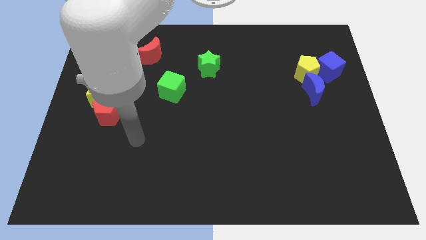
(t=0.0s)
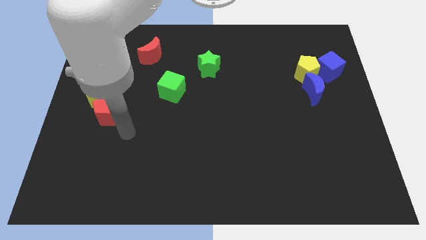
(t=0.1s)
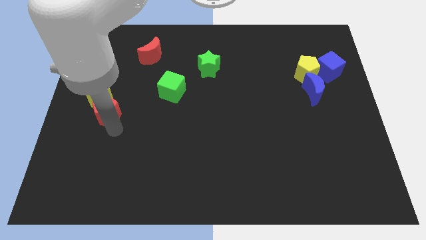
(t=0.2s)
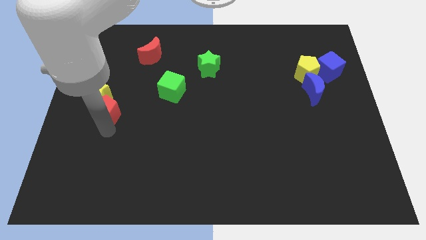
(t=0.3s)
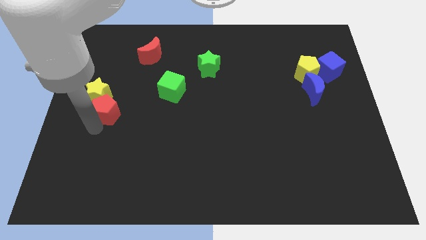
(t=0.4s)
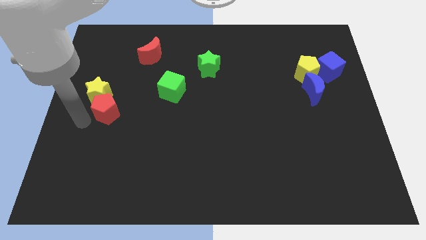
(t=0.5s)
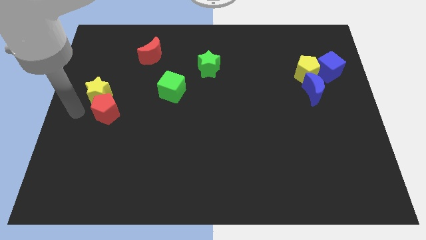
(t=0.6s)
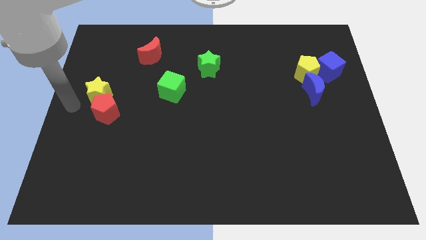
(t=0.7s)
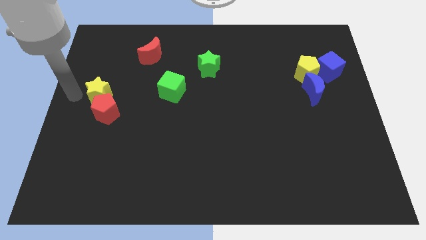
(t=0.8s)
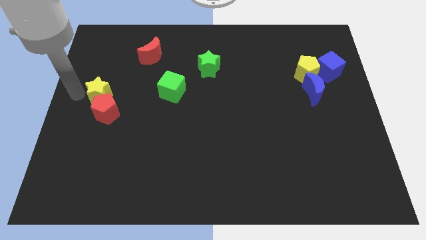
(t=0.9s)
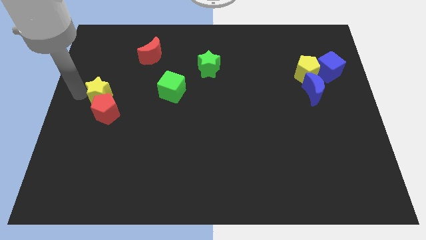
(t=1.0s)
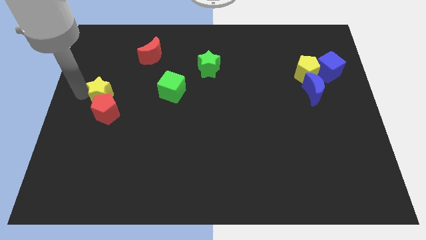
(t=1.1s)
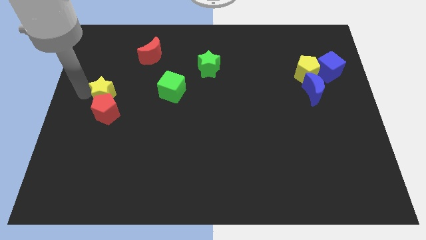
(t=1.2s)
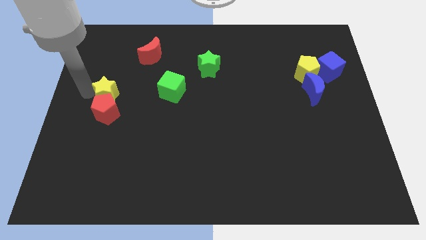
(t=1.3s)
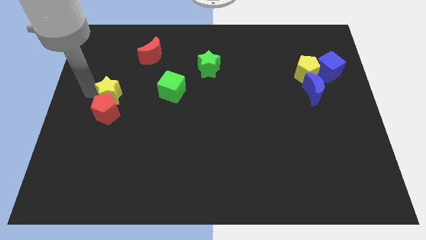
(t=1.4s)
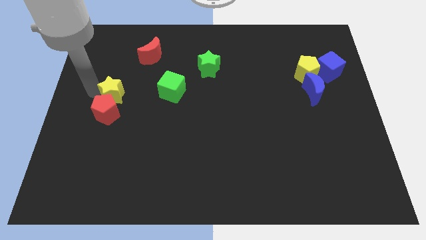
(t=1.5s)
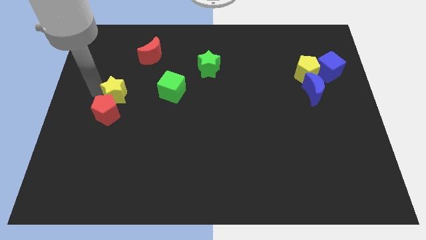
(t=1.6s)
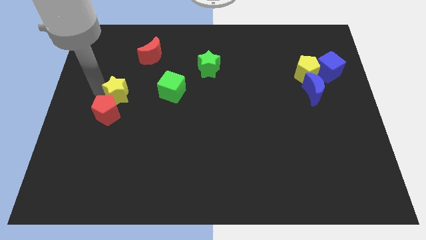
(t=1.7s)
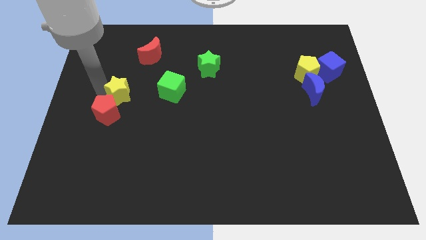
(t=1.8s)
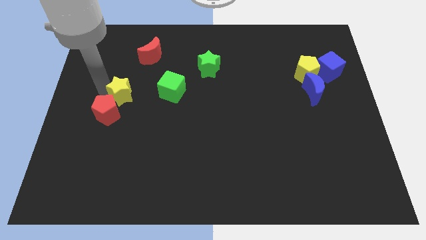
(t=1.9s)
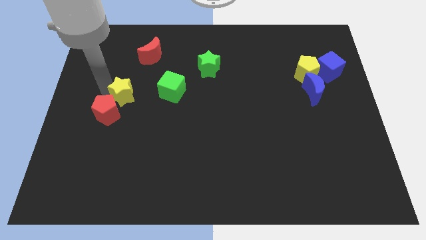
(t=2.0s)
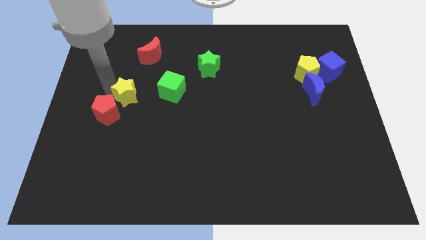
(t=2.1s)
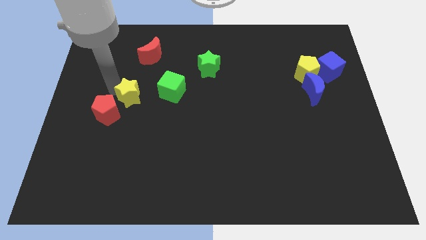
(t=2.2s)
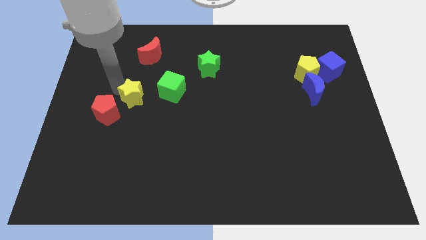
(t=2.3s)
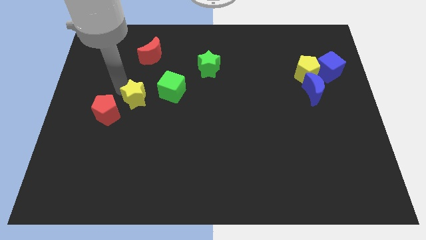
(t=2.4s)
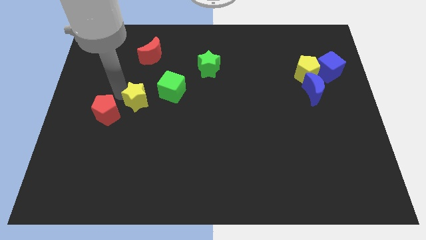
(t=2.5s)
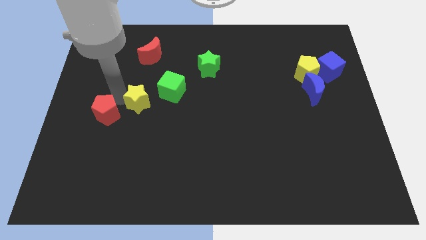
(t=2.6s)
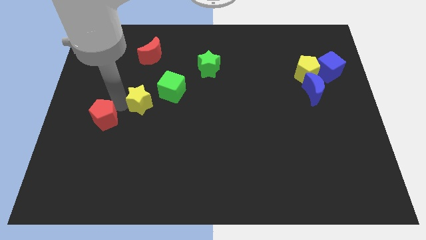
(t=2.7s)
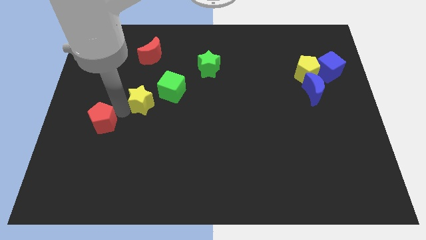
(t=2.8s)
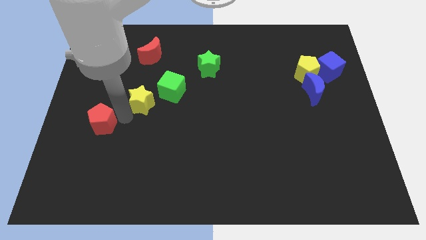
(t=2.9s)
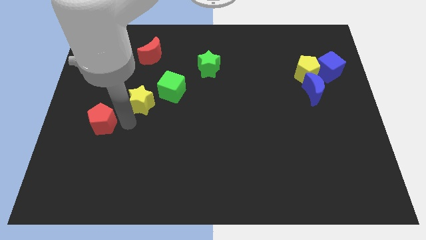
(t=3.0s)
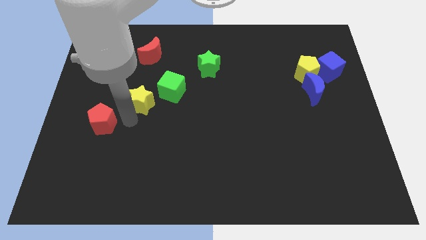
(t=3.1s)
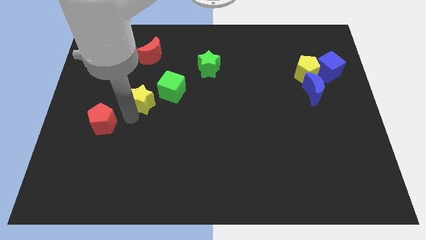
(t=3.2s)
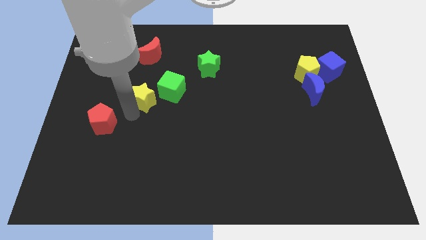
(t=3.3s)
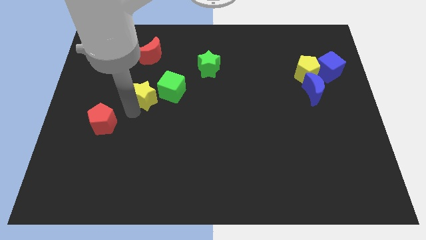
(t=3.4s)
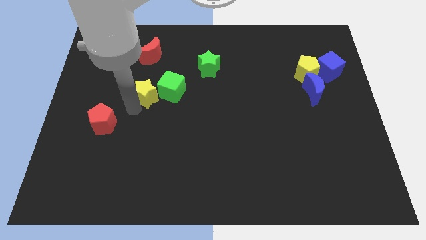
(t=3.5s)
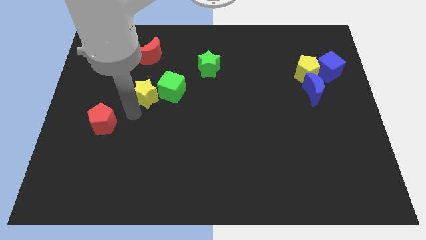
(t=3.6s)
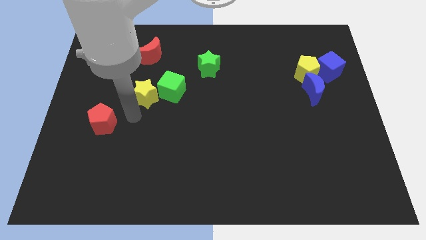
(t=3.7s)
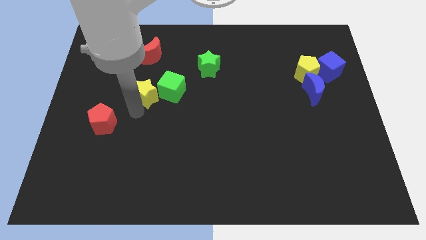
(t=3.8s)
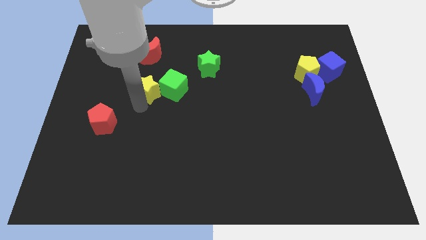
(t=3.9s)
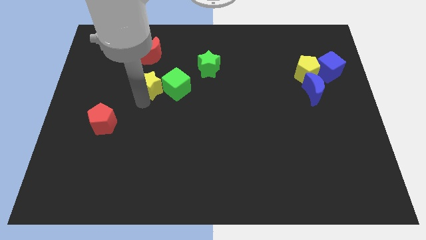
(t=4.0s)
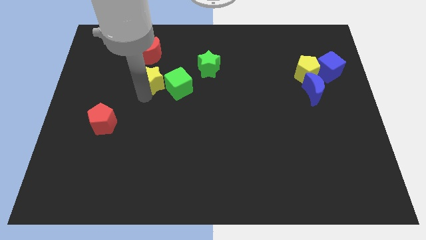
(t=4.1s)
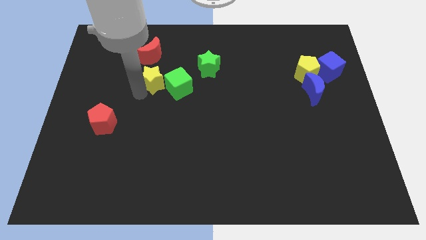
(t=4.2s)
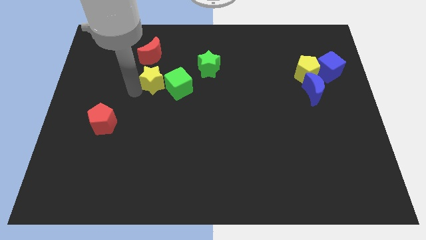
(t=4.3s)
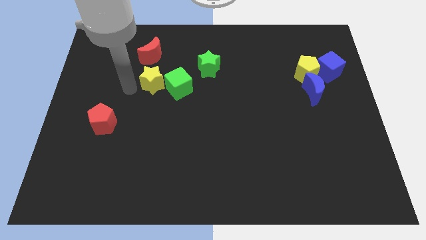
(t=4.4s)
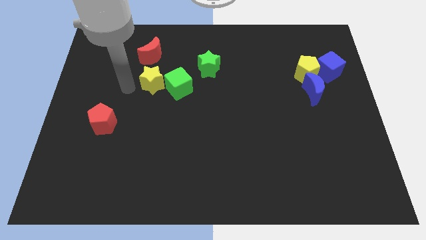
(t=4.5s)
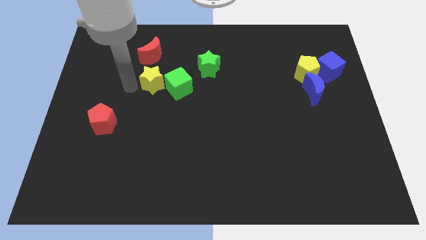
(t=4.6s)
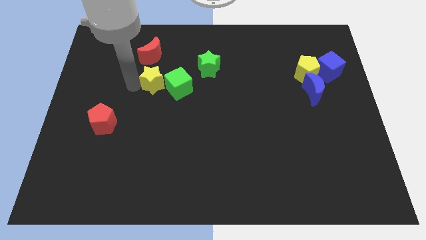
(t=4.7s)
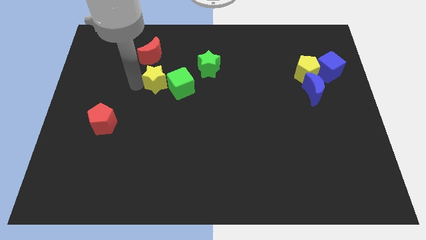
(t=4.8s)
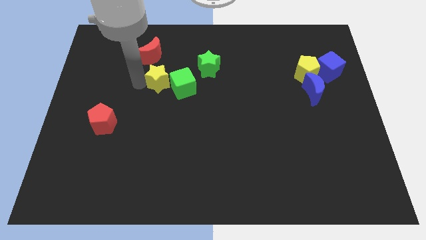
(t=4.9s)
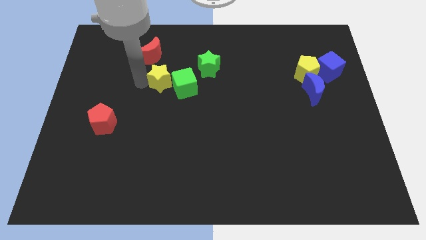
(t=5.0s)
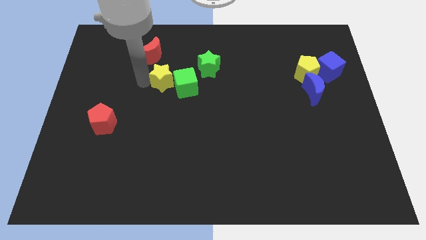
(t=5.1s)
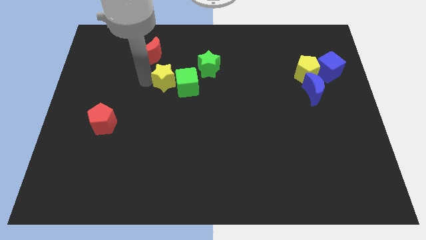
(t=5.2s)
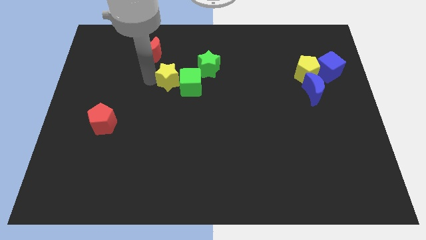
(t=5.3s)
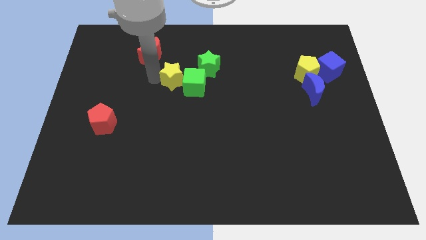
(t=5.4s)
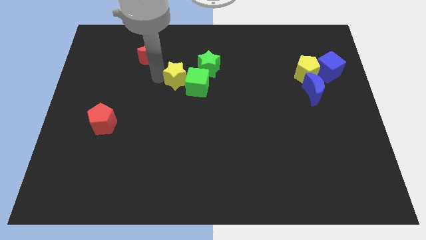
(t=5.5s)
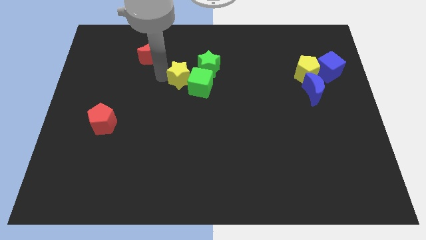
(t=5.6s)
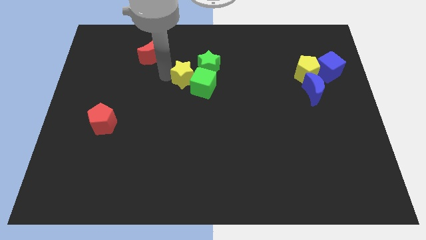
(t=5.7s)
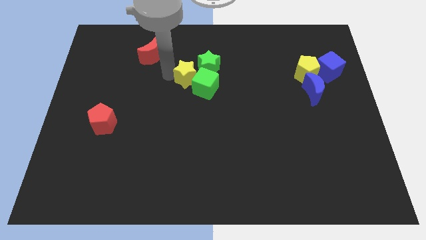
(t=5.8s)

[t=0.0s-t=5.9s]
slide the yellow star close to the green star

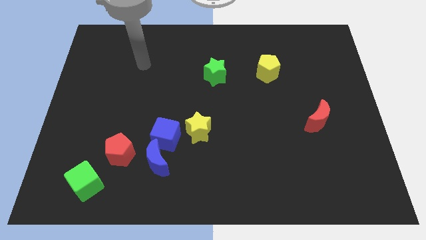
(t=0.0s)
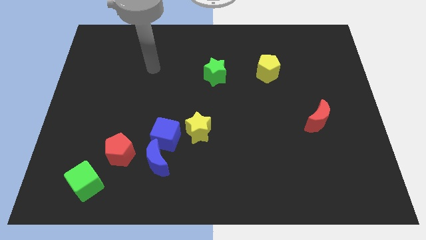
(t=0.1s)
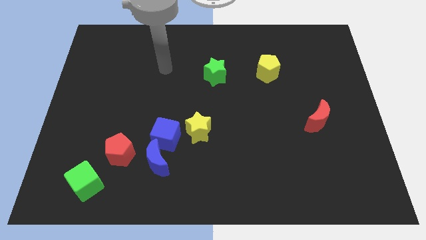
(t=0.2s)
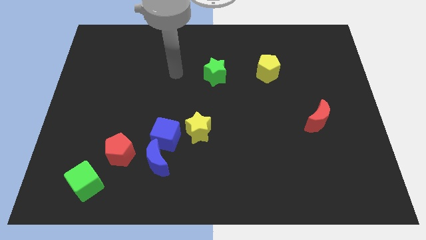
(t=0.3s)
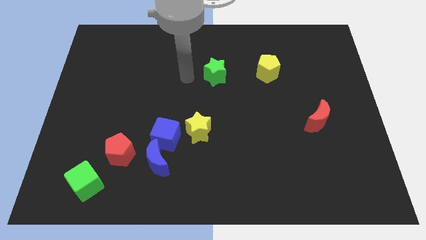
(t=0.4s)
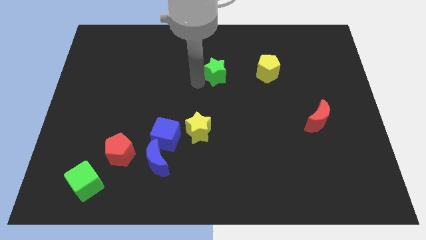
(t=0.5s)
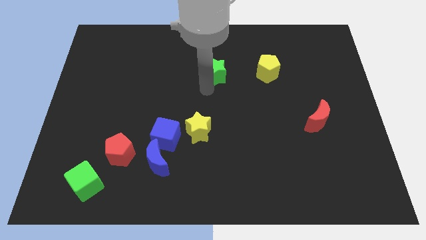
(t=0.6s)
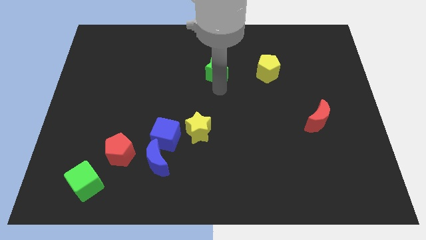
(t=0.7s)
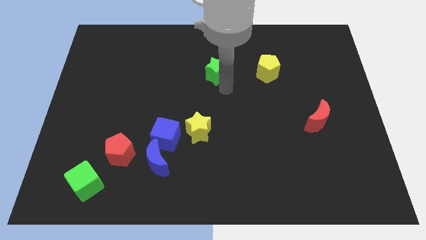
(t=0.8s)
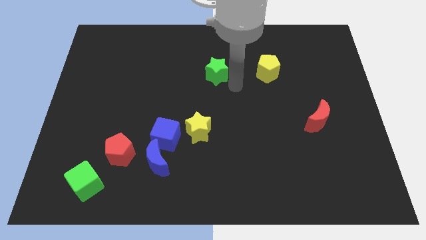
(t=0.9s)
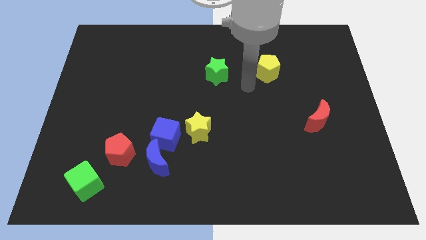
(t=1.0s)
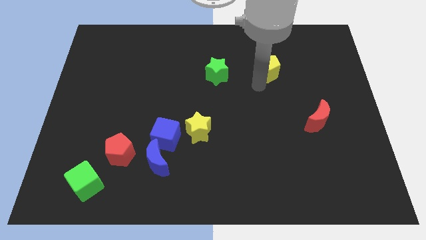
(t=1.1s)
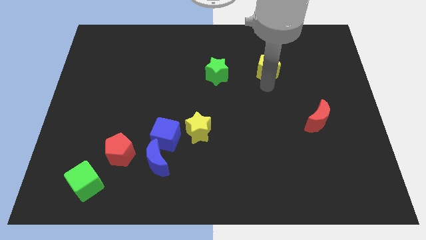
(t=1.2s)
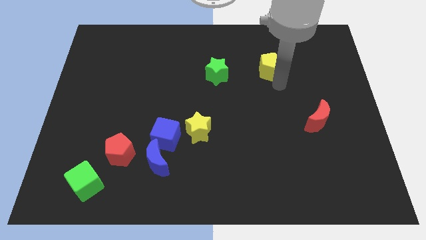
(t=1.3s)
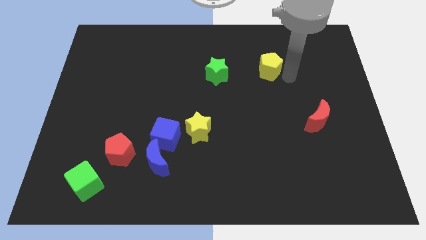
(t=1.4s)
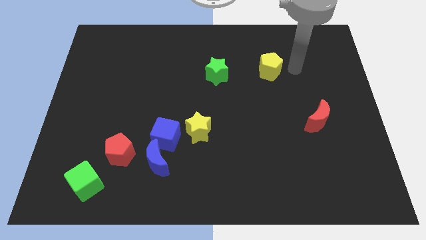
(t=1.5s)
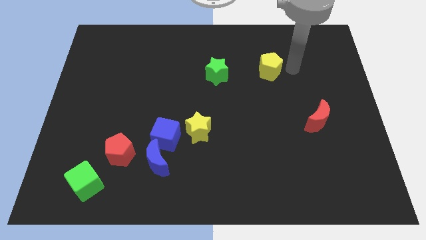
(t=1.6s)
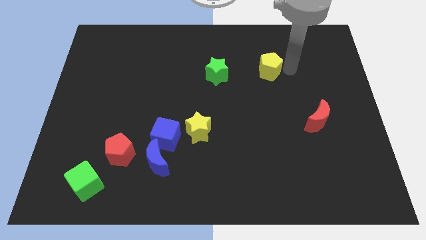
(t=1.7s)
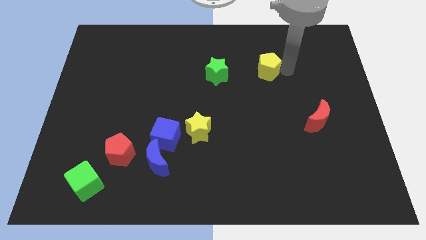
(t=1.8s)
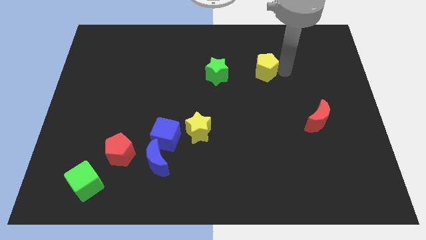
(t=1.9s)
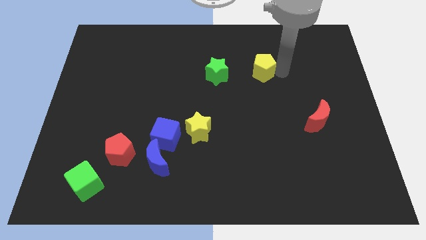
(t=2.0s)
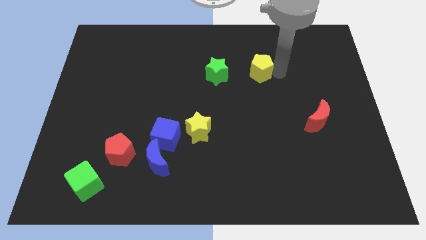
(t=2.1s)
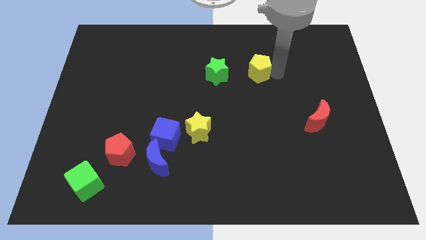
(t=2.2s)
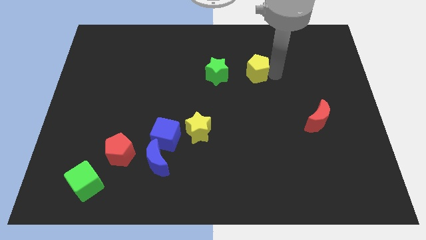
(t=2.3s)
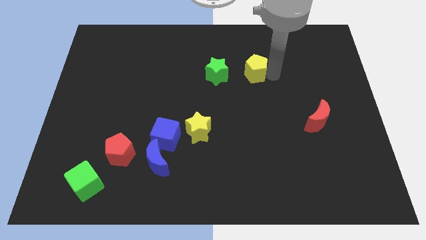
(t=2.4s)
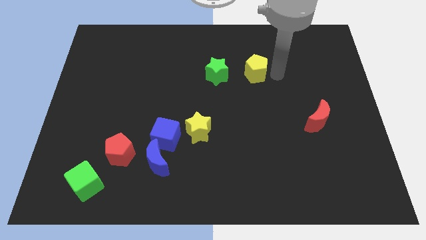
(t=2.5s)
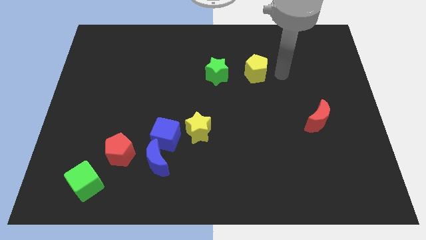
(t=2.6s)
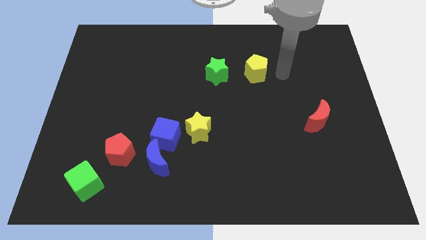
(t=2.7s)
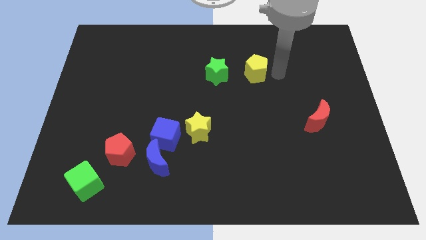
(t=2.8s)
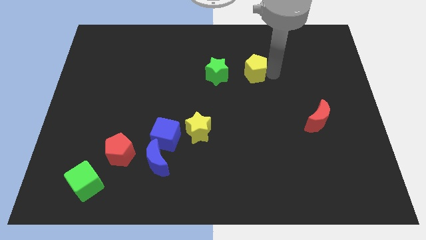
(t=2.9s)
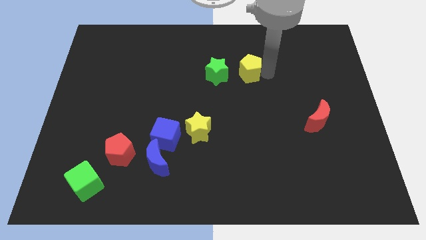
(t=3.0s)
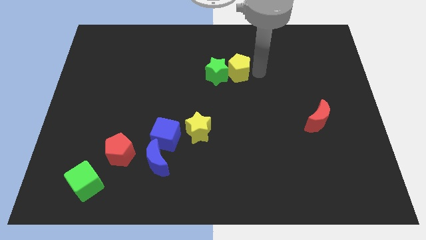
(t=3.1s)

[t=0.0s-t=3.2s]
push the yellow pentagon to the green star
